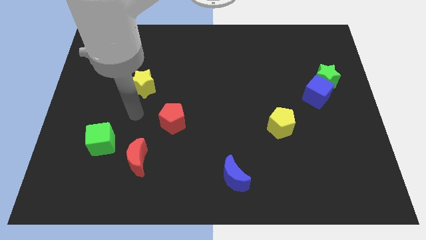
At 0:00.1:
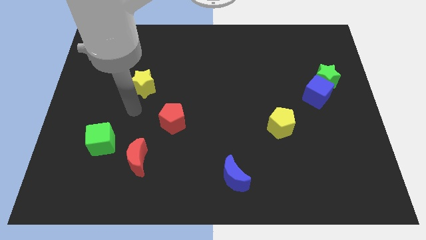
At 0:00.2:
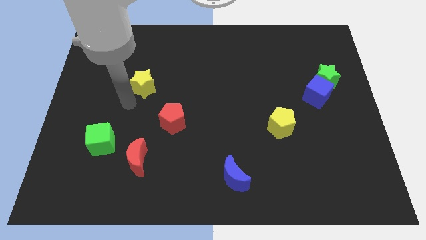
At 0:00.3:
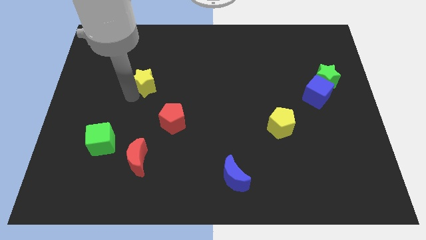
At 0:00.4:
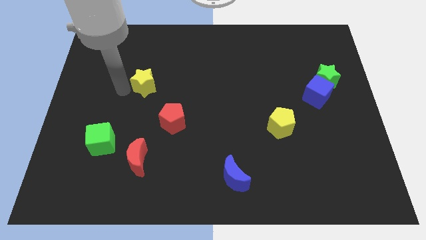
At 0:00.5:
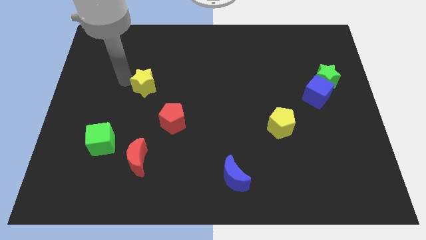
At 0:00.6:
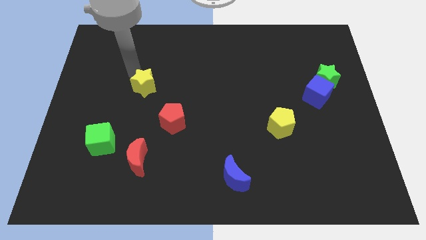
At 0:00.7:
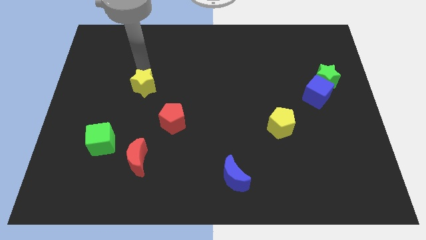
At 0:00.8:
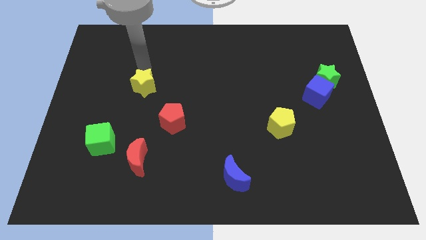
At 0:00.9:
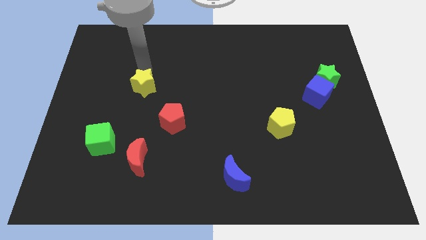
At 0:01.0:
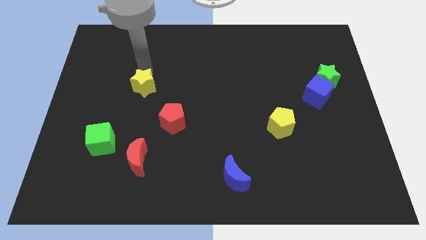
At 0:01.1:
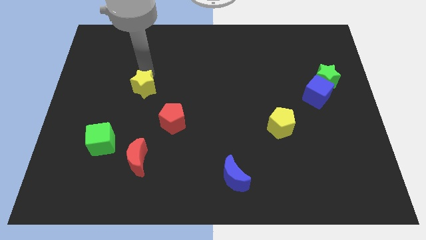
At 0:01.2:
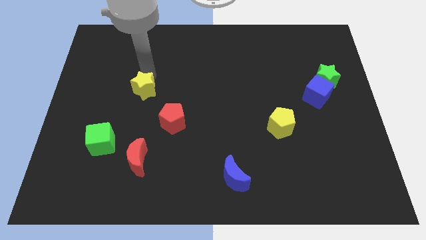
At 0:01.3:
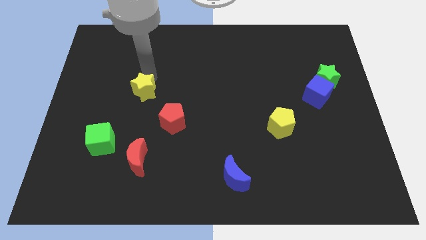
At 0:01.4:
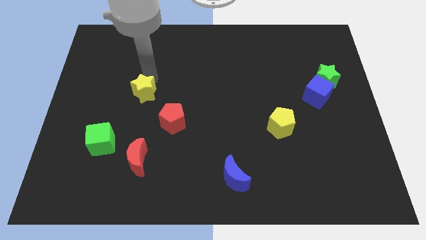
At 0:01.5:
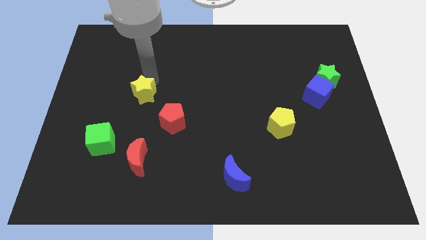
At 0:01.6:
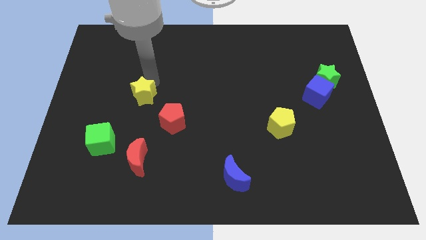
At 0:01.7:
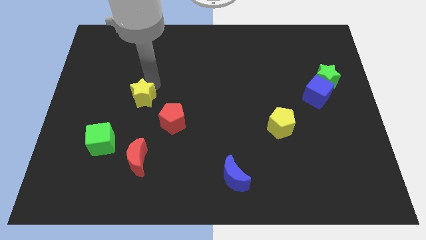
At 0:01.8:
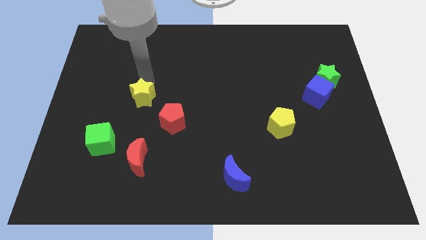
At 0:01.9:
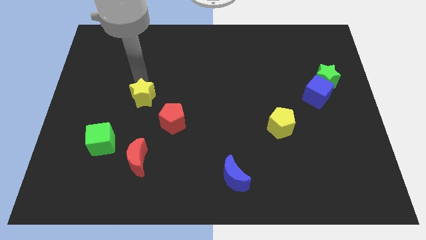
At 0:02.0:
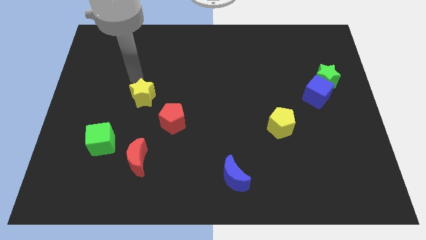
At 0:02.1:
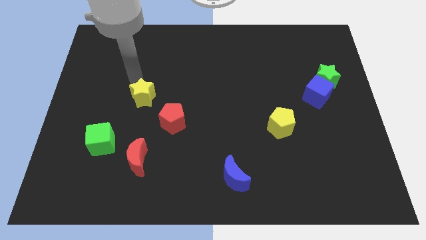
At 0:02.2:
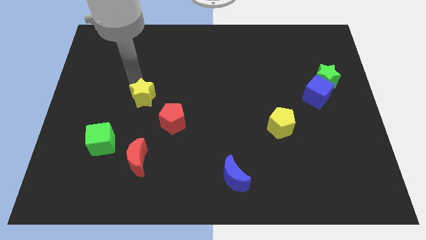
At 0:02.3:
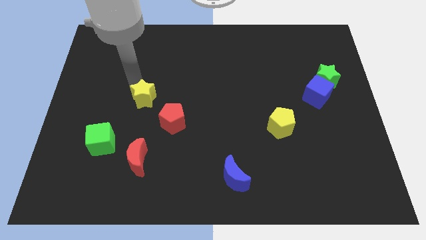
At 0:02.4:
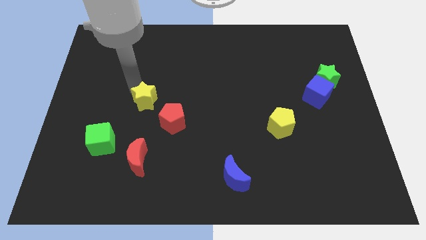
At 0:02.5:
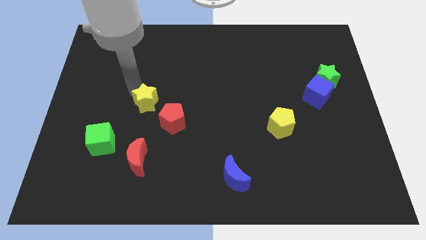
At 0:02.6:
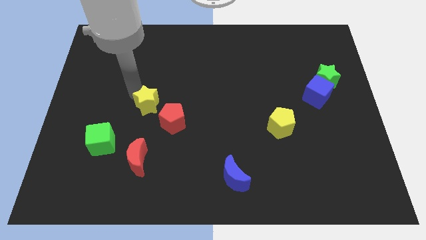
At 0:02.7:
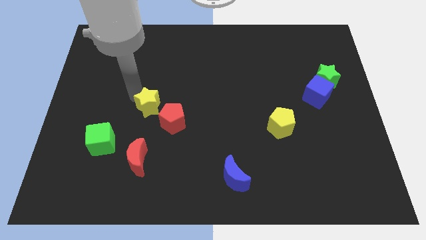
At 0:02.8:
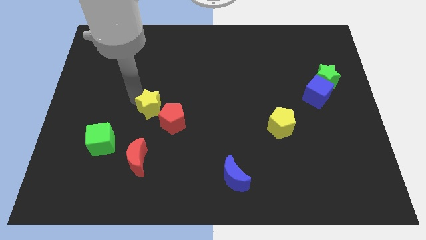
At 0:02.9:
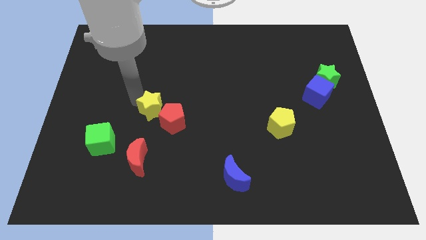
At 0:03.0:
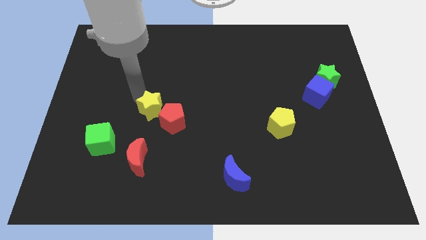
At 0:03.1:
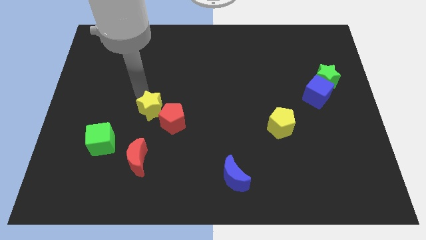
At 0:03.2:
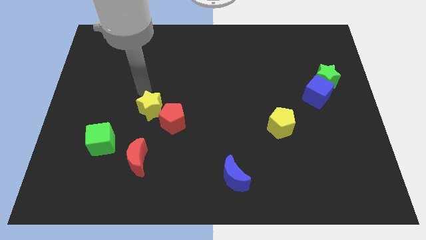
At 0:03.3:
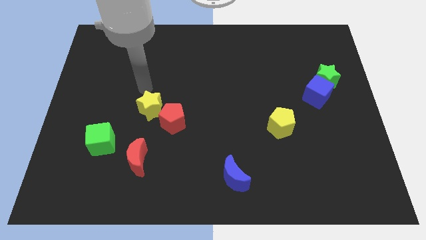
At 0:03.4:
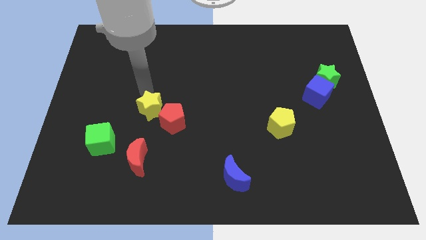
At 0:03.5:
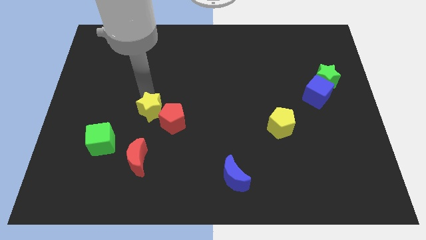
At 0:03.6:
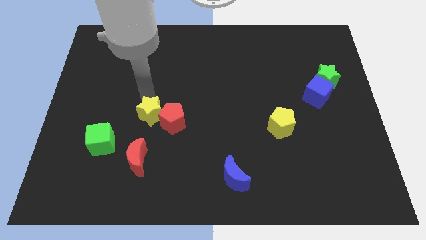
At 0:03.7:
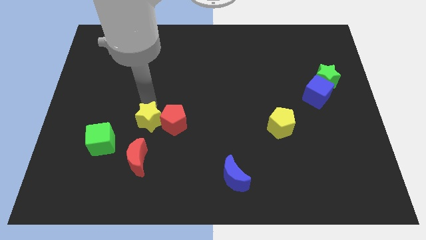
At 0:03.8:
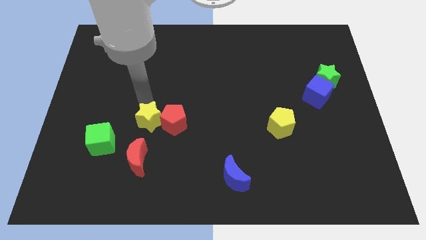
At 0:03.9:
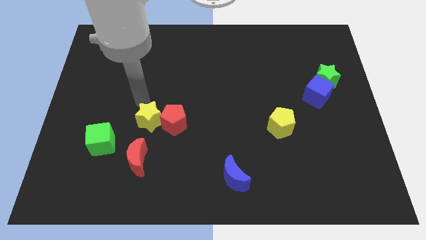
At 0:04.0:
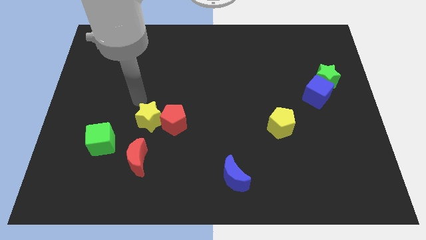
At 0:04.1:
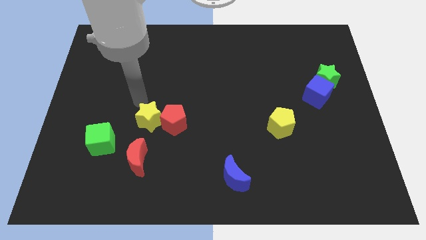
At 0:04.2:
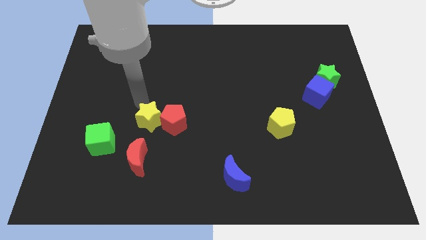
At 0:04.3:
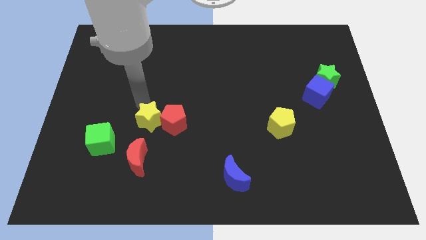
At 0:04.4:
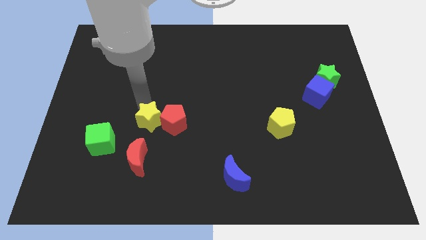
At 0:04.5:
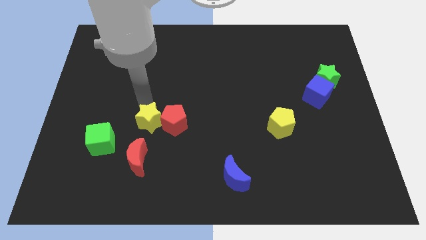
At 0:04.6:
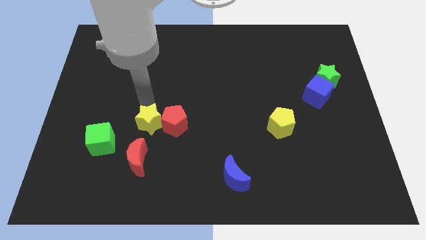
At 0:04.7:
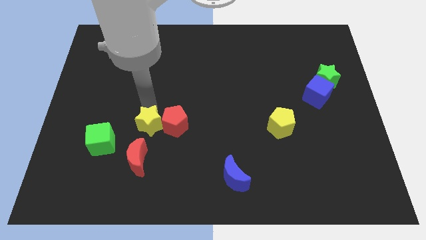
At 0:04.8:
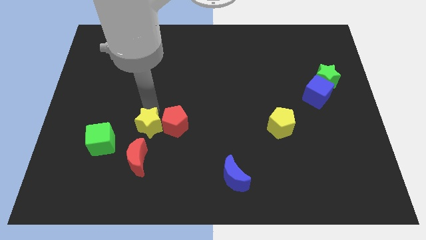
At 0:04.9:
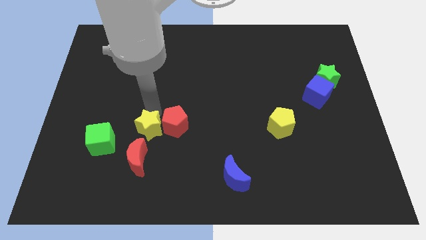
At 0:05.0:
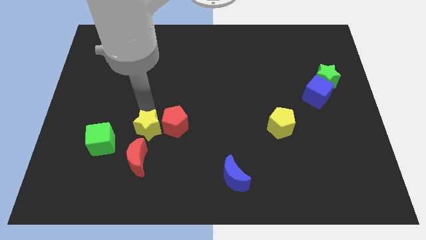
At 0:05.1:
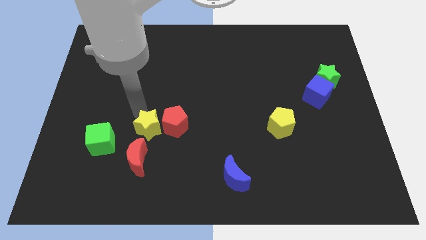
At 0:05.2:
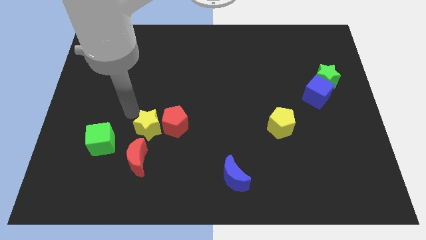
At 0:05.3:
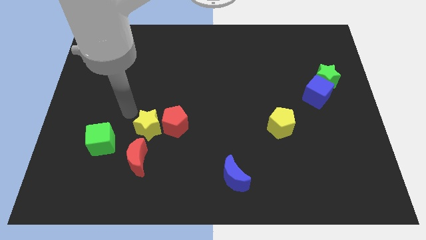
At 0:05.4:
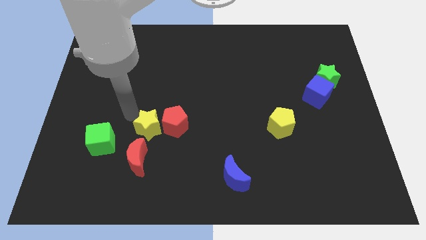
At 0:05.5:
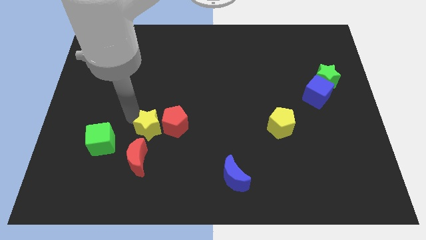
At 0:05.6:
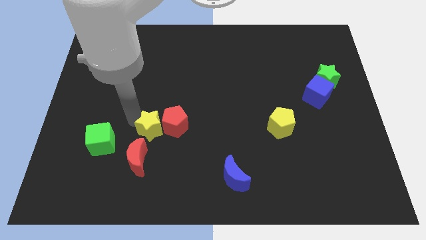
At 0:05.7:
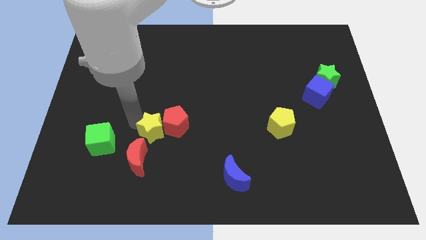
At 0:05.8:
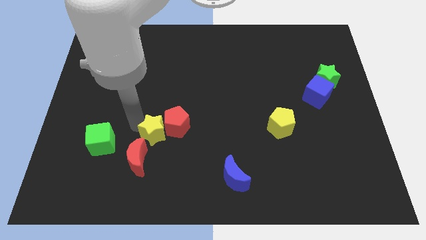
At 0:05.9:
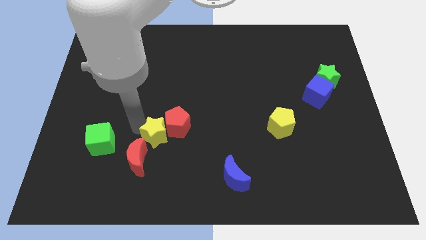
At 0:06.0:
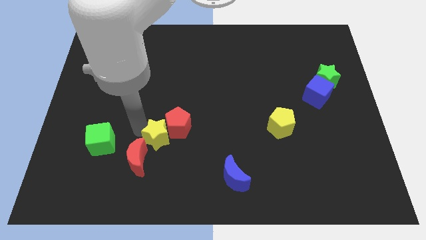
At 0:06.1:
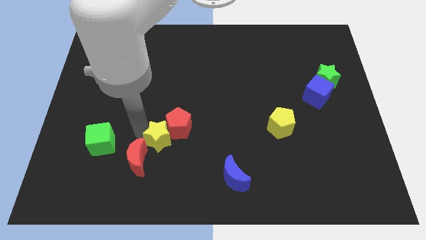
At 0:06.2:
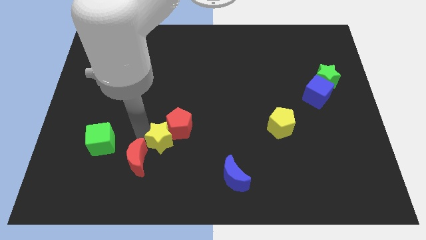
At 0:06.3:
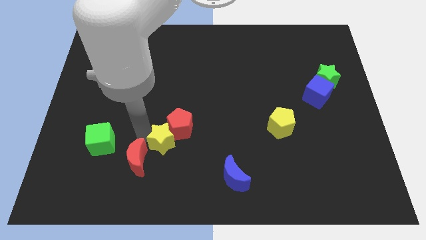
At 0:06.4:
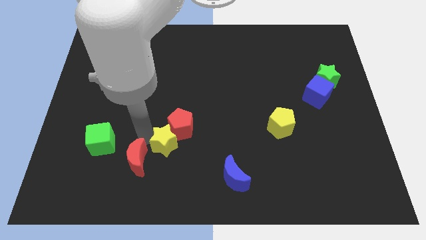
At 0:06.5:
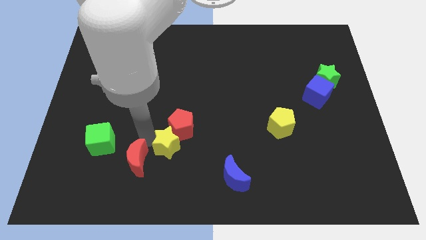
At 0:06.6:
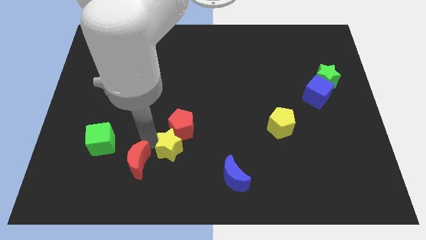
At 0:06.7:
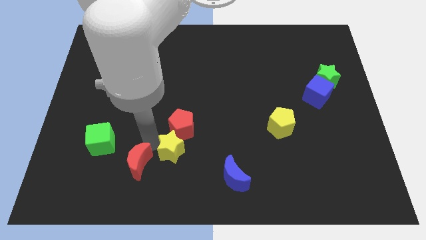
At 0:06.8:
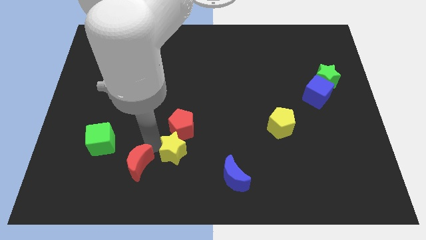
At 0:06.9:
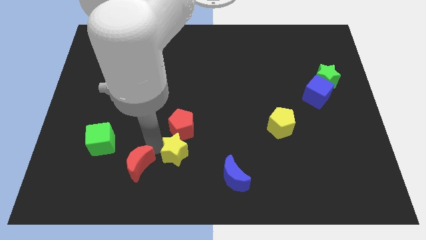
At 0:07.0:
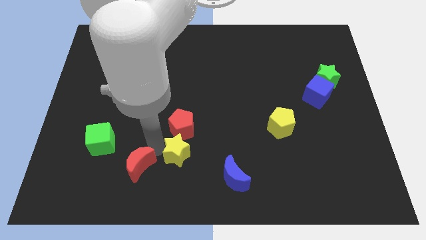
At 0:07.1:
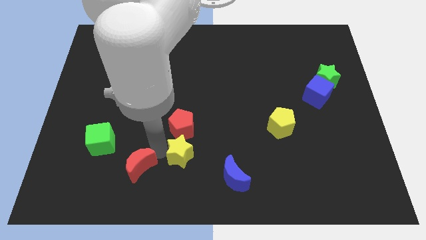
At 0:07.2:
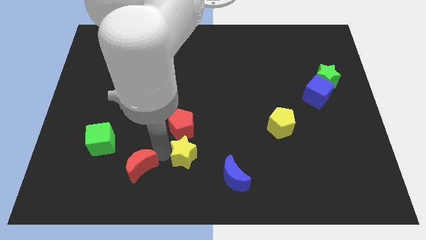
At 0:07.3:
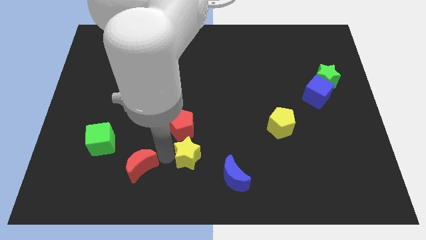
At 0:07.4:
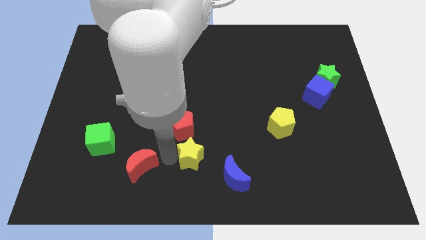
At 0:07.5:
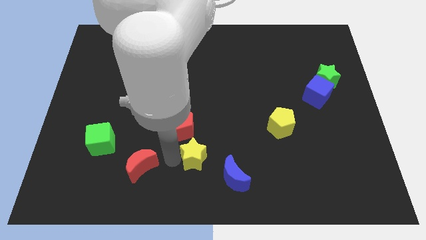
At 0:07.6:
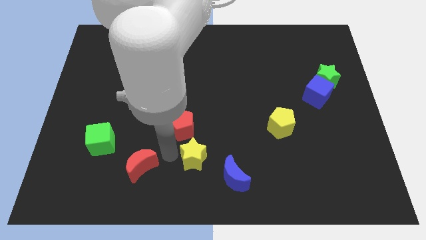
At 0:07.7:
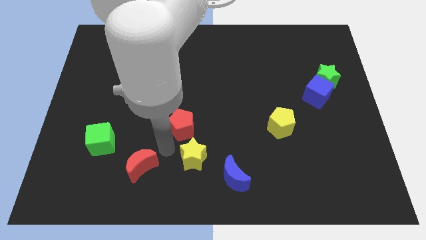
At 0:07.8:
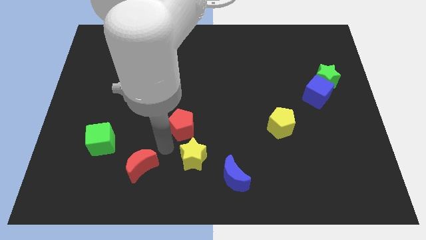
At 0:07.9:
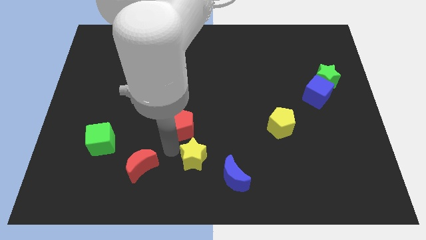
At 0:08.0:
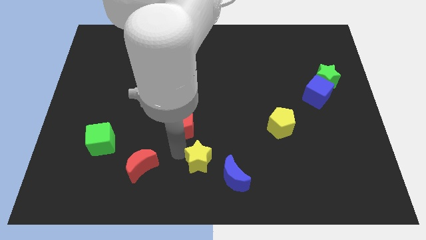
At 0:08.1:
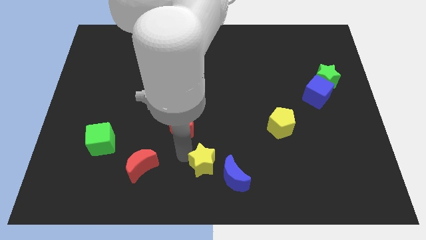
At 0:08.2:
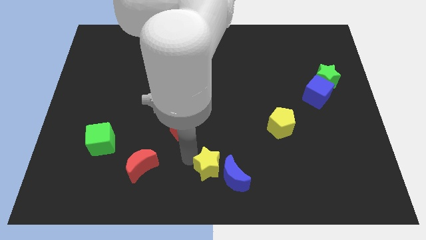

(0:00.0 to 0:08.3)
move the yellow star to the blue moon
